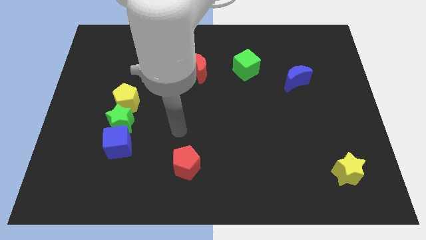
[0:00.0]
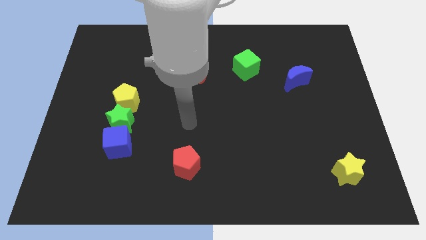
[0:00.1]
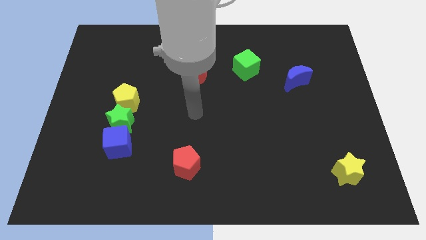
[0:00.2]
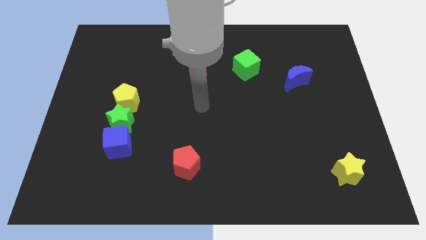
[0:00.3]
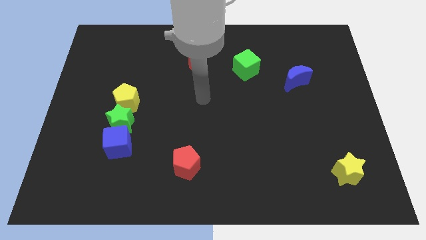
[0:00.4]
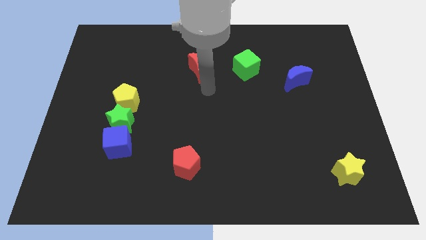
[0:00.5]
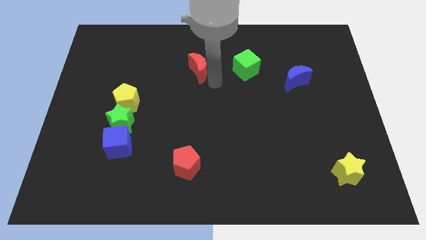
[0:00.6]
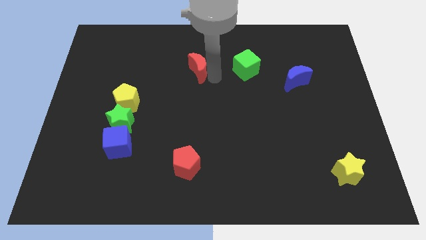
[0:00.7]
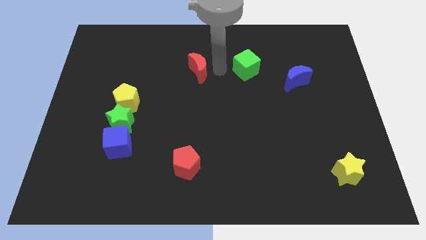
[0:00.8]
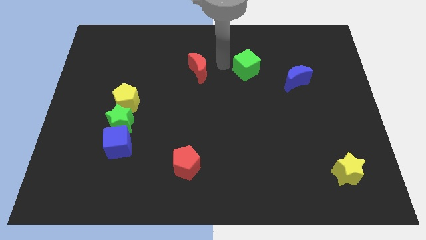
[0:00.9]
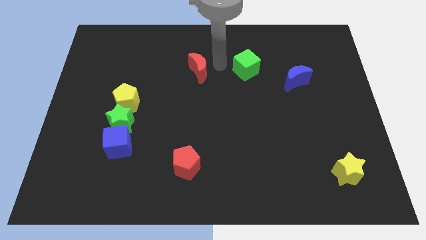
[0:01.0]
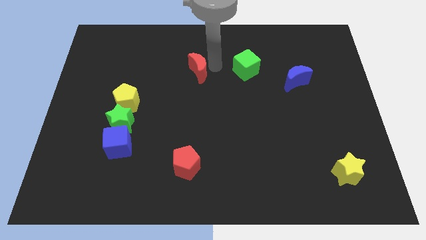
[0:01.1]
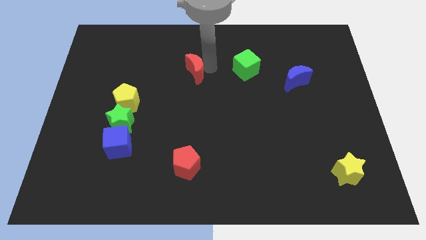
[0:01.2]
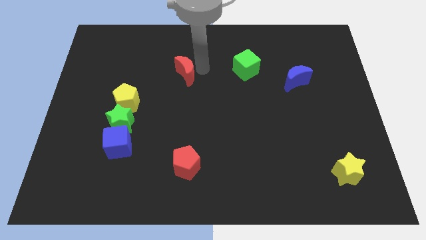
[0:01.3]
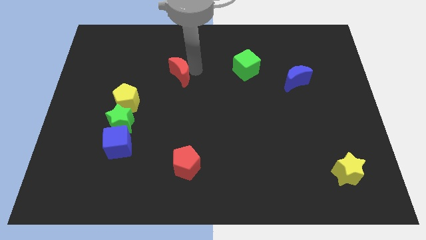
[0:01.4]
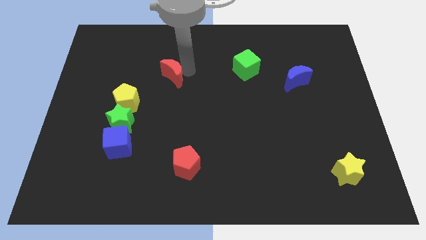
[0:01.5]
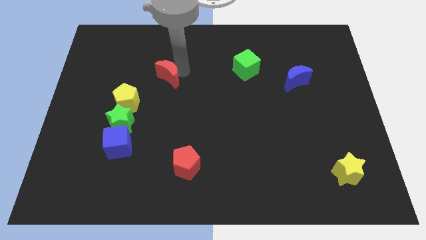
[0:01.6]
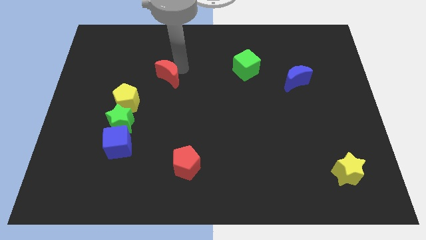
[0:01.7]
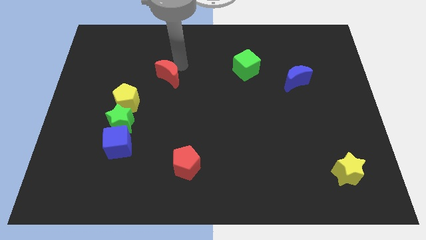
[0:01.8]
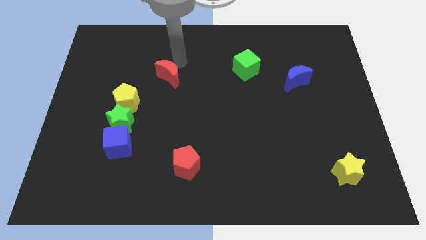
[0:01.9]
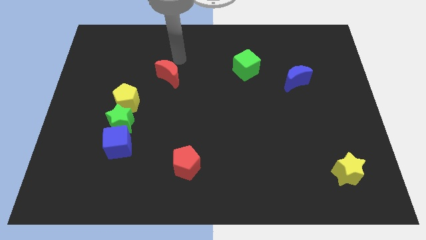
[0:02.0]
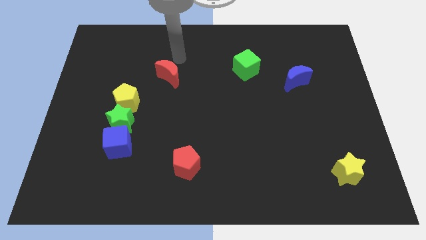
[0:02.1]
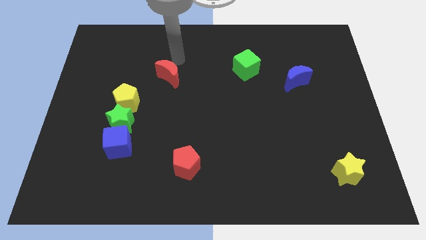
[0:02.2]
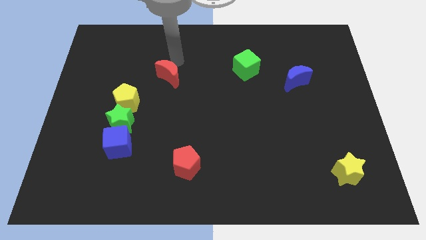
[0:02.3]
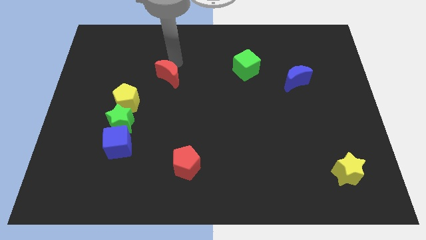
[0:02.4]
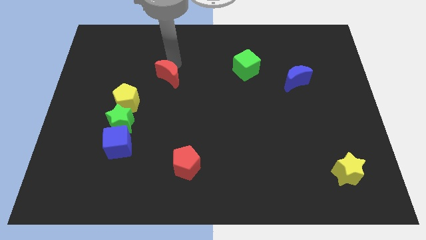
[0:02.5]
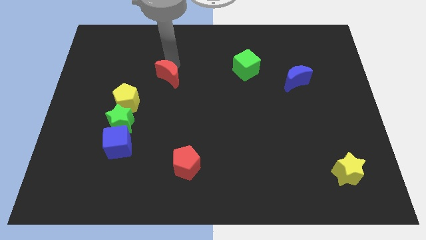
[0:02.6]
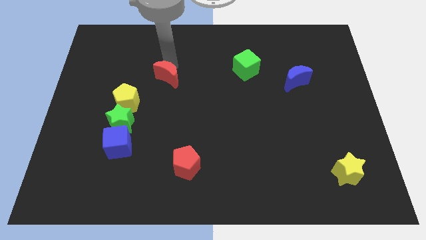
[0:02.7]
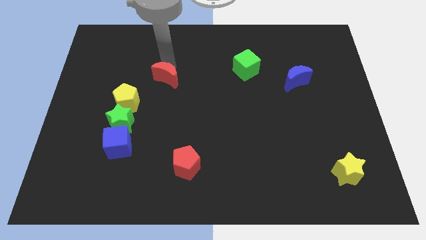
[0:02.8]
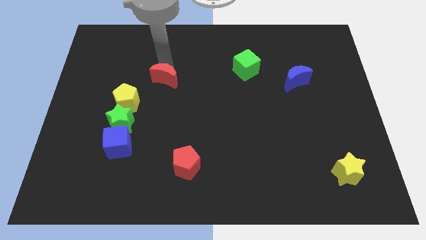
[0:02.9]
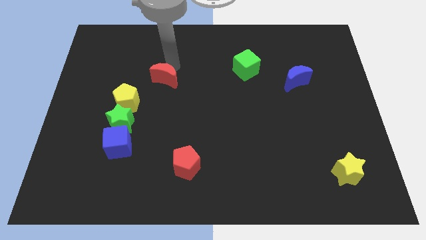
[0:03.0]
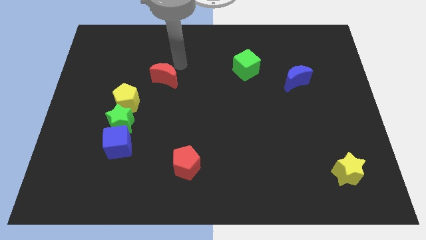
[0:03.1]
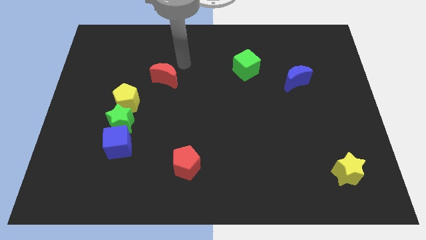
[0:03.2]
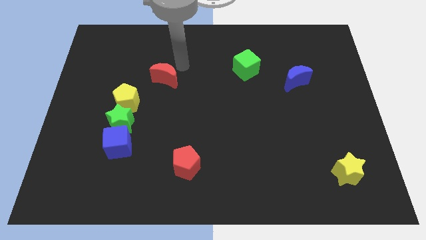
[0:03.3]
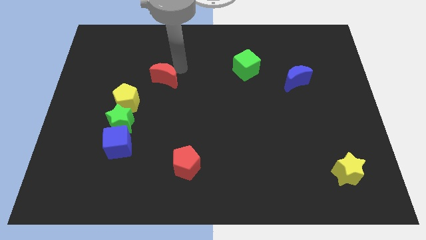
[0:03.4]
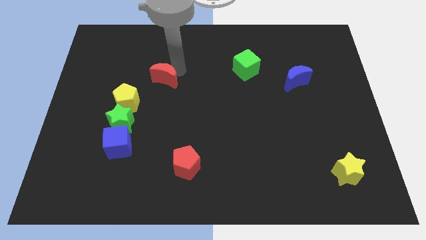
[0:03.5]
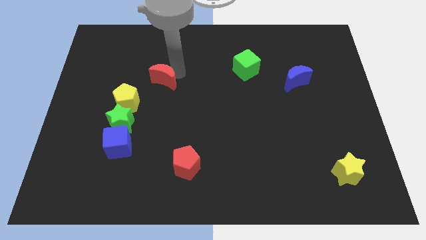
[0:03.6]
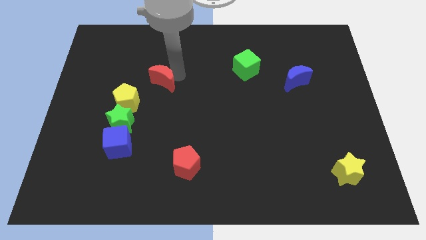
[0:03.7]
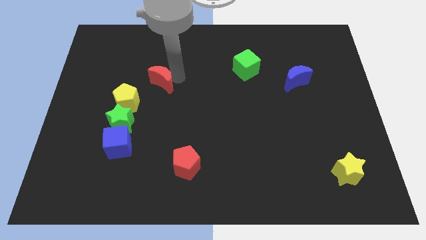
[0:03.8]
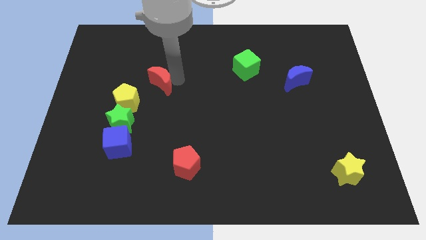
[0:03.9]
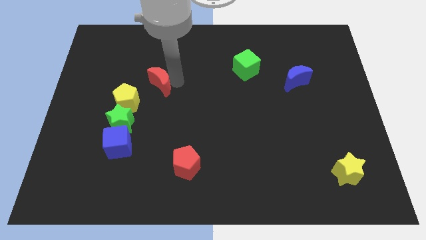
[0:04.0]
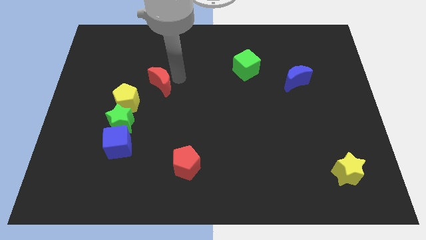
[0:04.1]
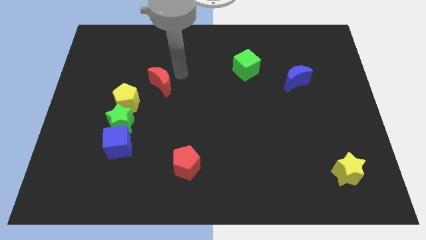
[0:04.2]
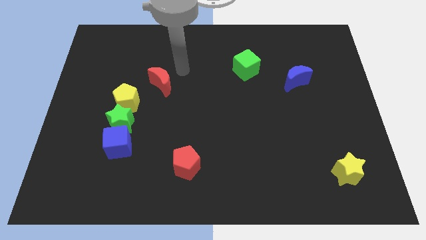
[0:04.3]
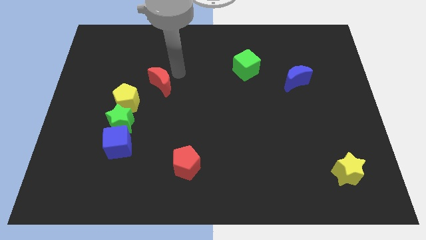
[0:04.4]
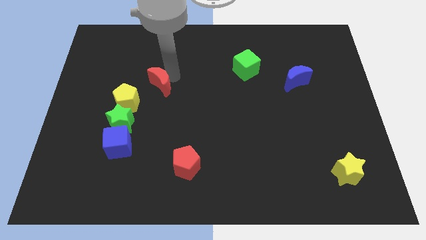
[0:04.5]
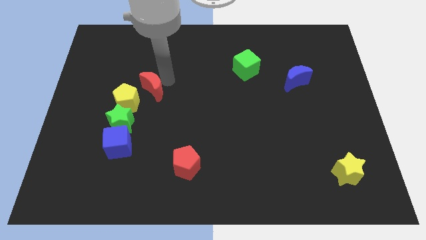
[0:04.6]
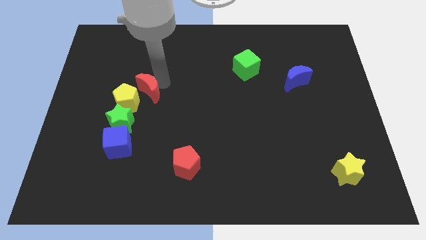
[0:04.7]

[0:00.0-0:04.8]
push the red moon towards the yellow pentagon

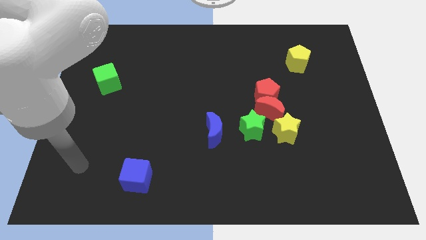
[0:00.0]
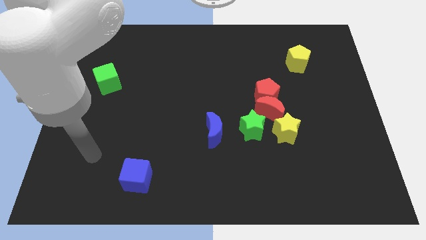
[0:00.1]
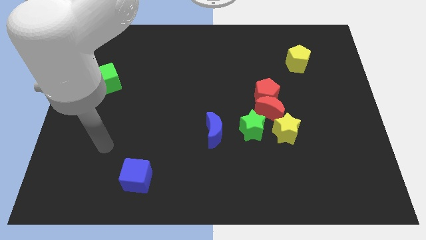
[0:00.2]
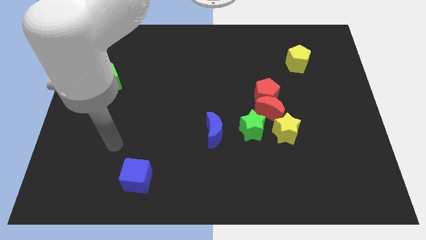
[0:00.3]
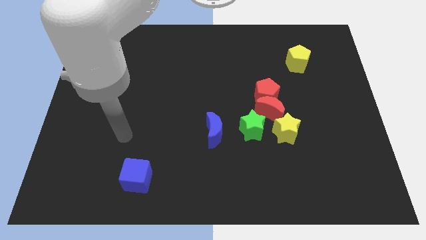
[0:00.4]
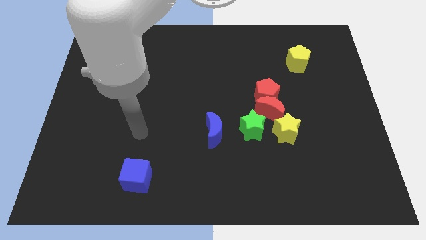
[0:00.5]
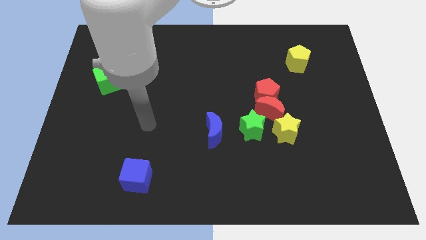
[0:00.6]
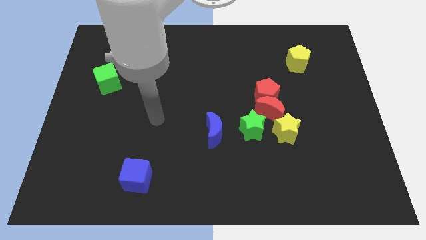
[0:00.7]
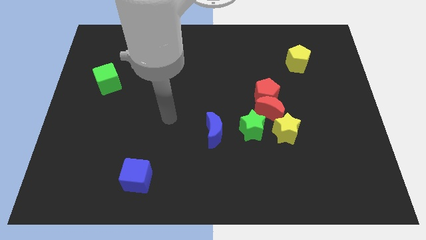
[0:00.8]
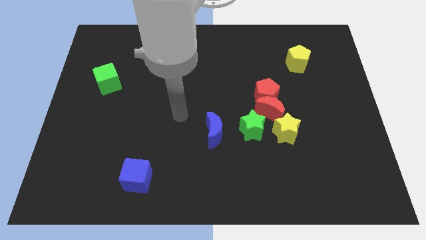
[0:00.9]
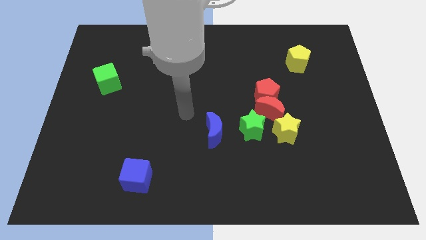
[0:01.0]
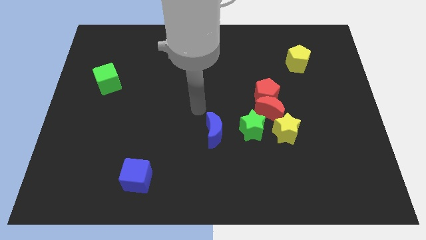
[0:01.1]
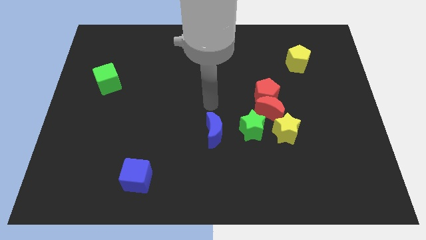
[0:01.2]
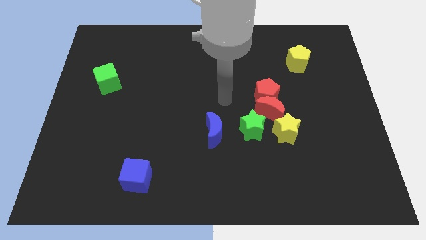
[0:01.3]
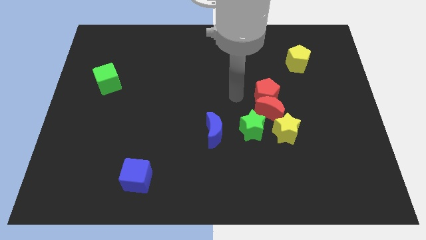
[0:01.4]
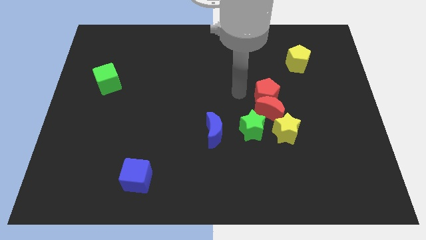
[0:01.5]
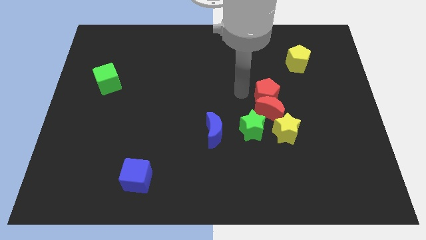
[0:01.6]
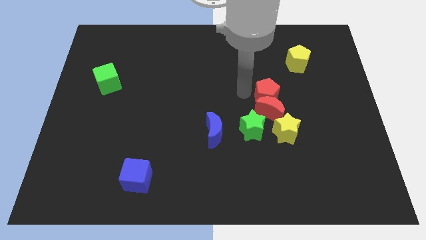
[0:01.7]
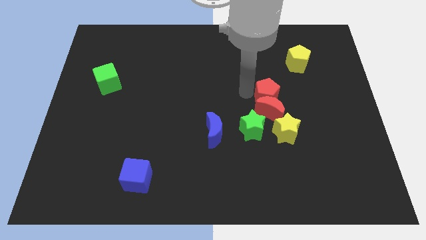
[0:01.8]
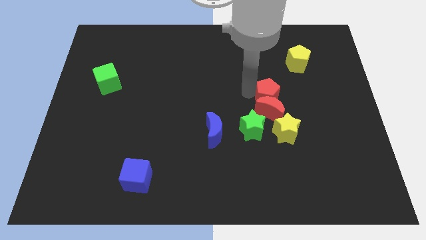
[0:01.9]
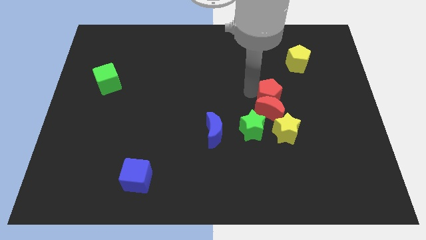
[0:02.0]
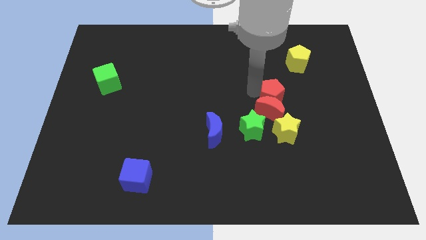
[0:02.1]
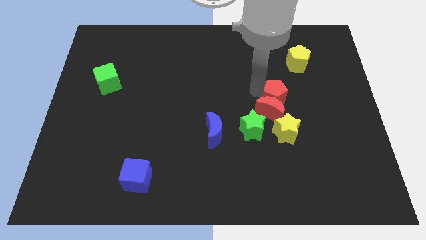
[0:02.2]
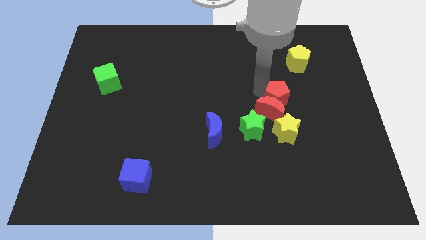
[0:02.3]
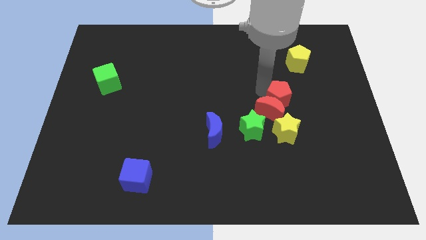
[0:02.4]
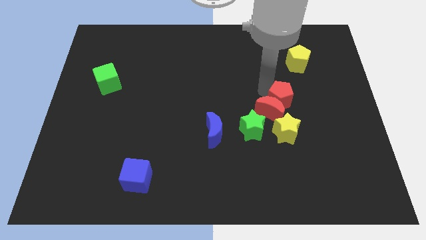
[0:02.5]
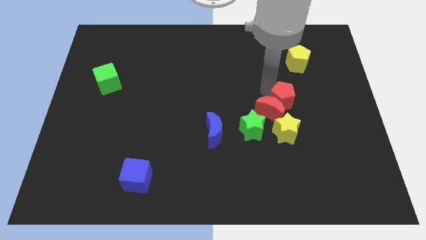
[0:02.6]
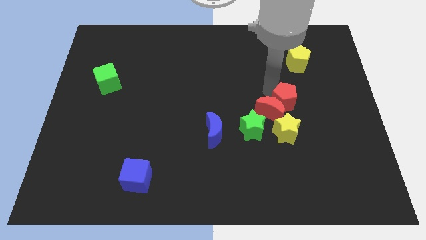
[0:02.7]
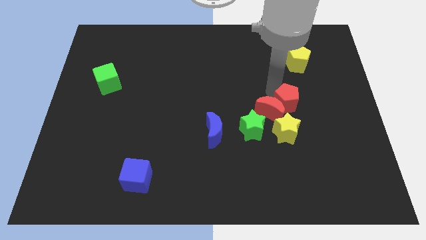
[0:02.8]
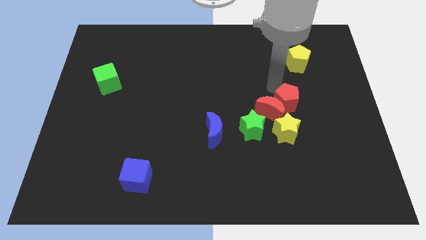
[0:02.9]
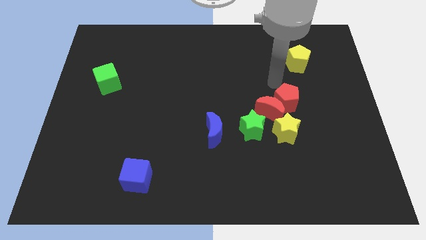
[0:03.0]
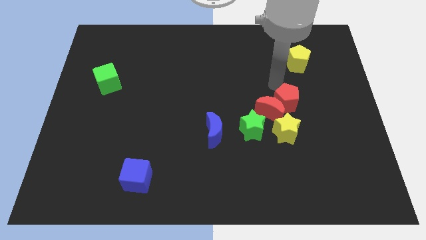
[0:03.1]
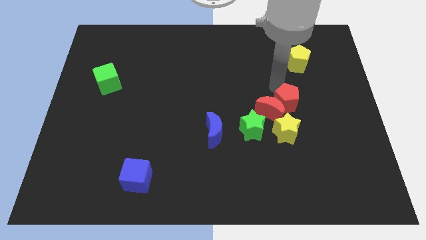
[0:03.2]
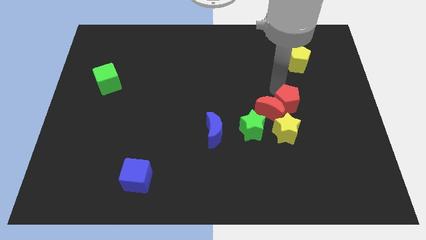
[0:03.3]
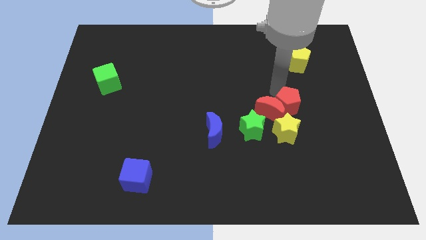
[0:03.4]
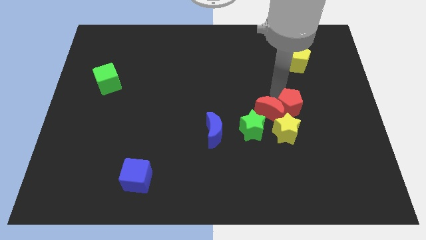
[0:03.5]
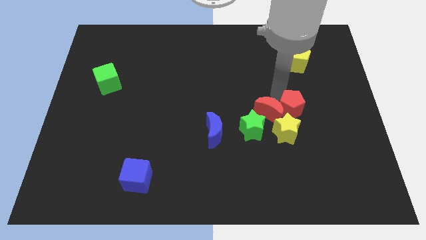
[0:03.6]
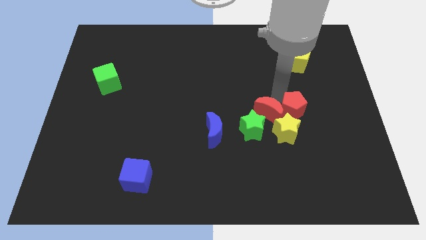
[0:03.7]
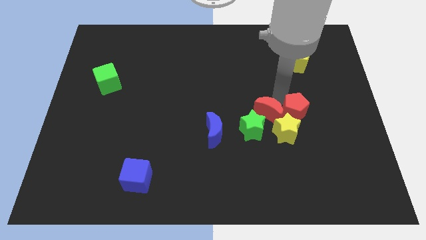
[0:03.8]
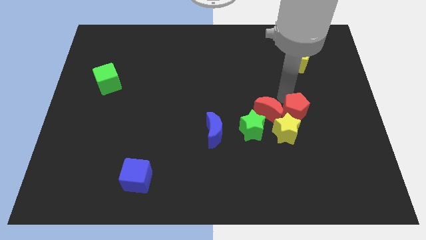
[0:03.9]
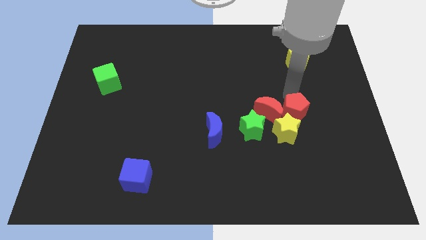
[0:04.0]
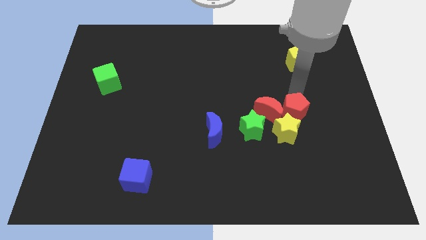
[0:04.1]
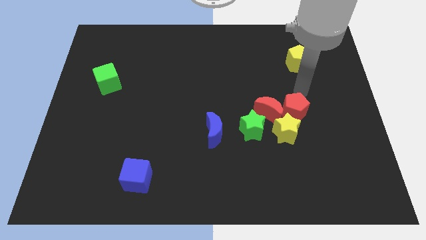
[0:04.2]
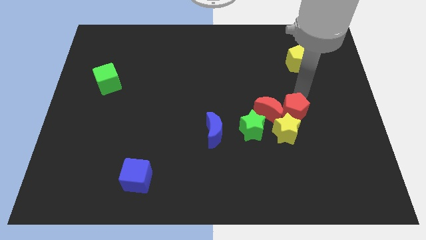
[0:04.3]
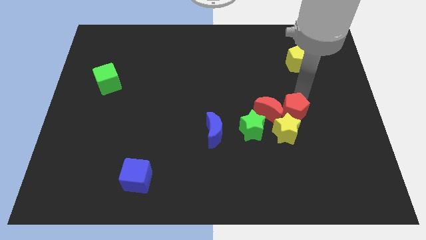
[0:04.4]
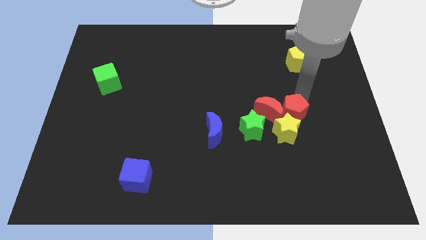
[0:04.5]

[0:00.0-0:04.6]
put the red pentagon next to the yellow star
